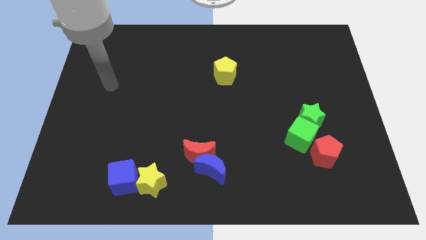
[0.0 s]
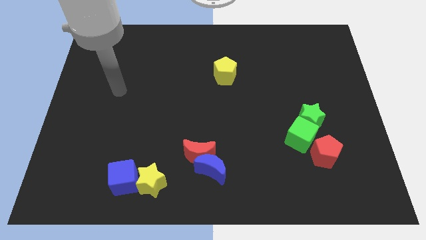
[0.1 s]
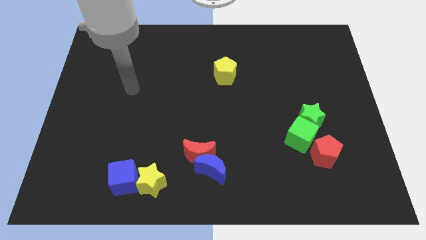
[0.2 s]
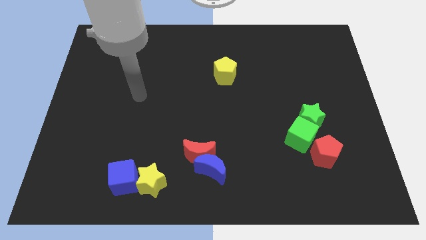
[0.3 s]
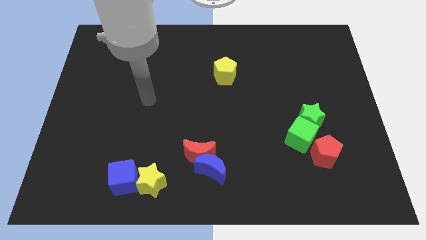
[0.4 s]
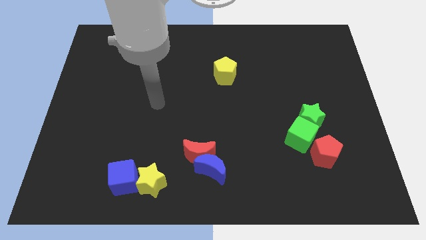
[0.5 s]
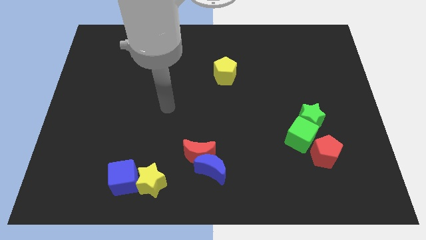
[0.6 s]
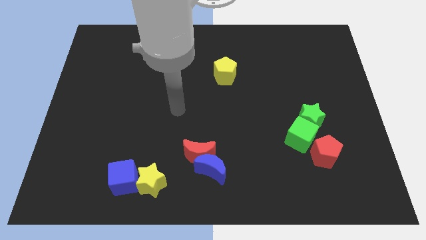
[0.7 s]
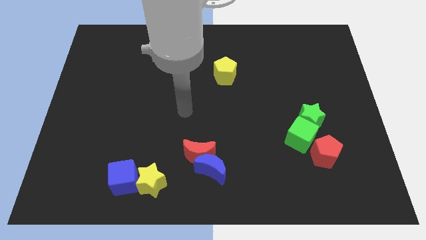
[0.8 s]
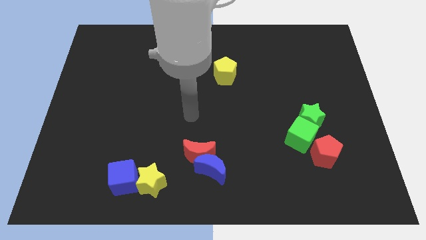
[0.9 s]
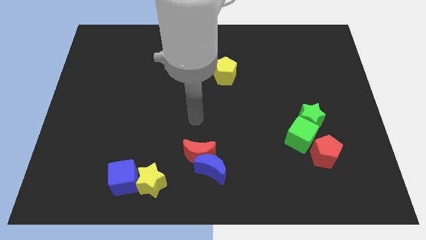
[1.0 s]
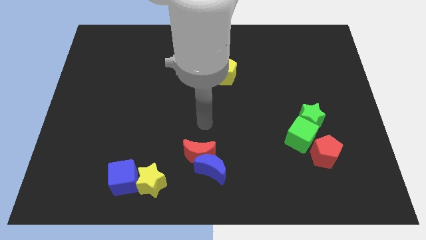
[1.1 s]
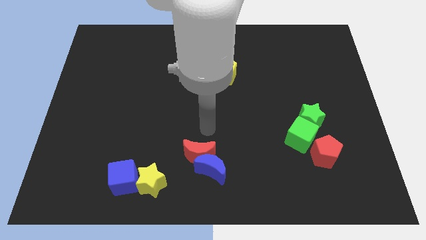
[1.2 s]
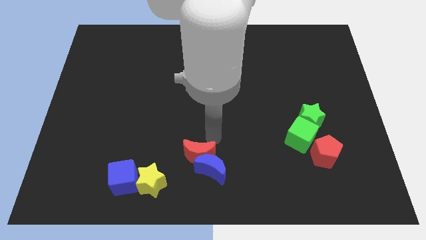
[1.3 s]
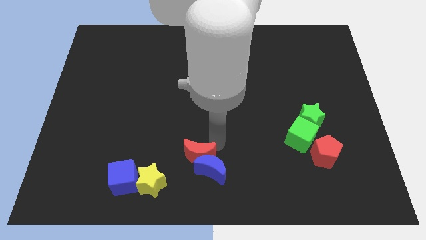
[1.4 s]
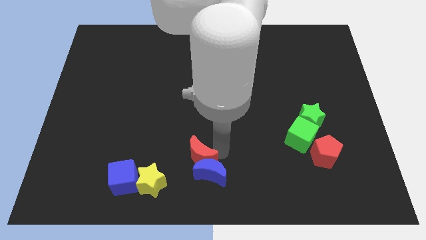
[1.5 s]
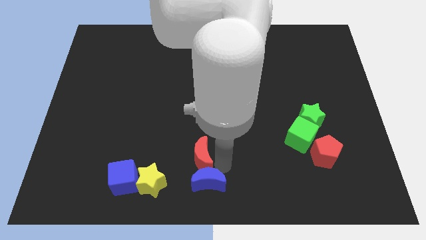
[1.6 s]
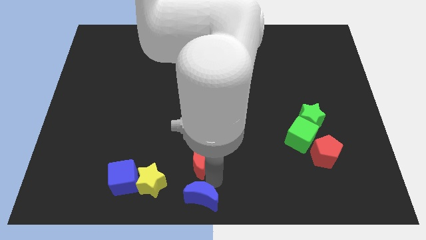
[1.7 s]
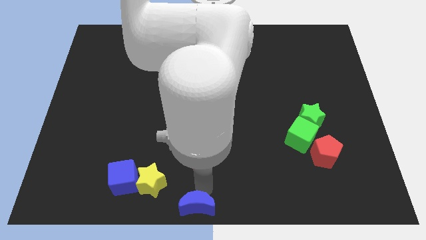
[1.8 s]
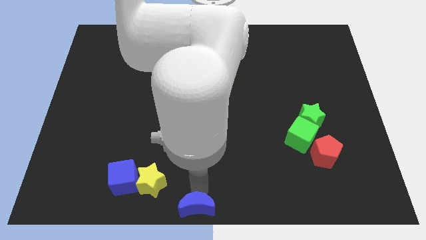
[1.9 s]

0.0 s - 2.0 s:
separate the red moon from the blue moon

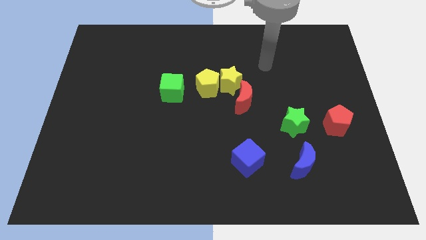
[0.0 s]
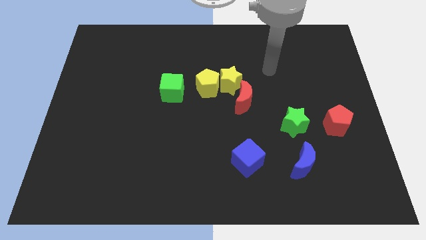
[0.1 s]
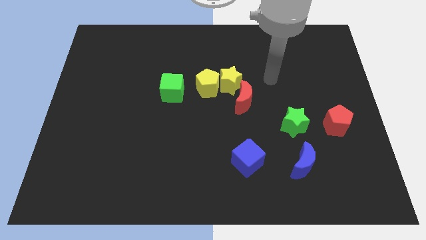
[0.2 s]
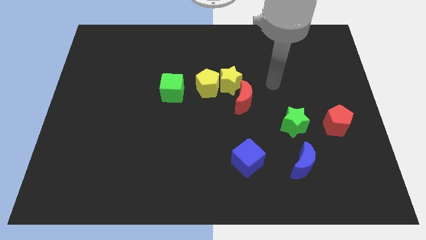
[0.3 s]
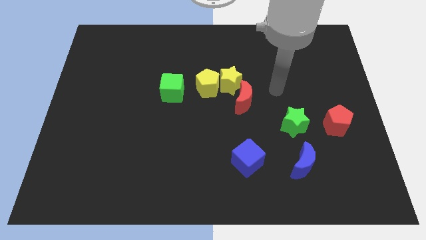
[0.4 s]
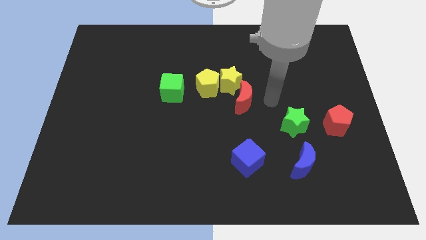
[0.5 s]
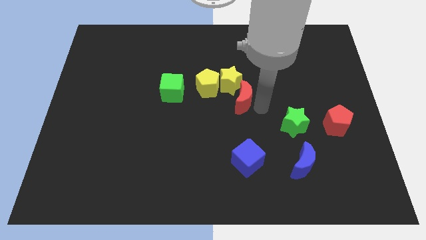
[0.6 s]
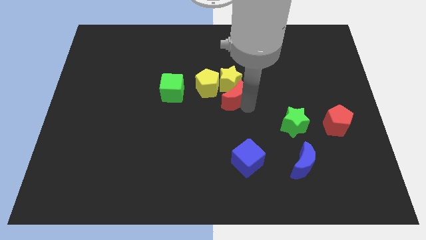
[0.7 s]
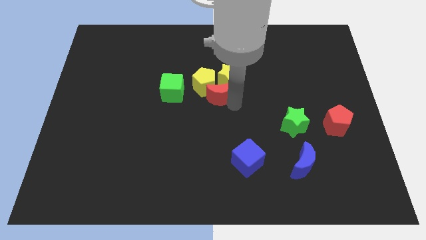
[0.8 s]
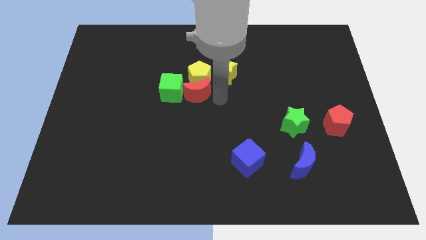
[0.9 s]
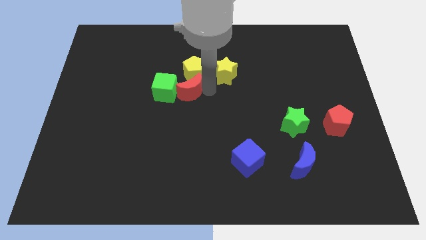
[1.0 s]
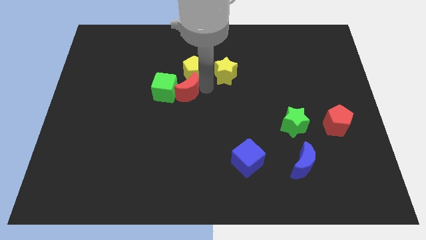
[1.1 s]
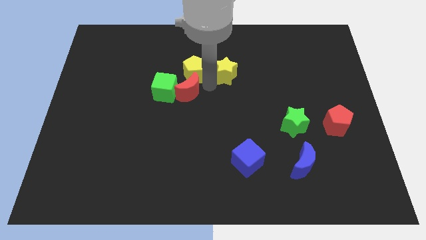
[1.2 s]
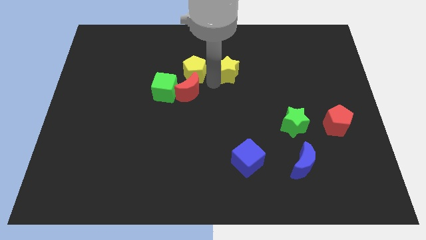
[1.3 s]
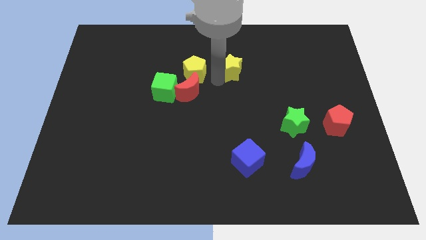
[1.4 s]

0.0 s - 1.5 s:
pull the yellow star apart from the yellow pentagon and red moon

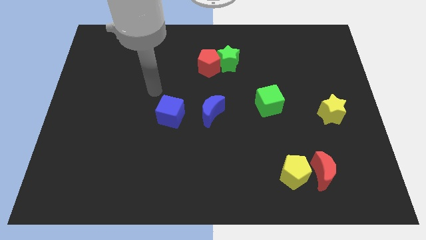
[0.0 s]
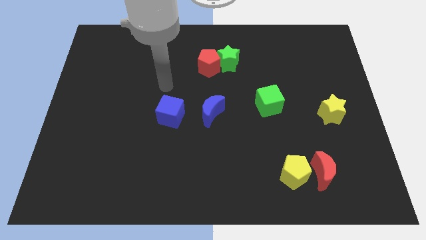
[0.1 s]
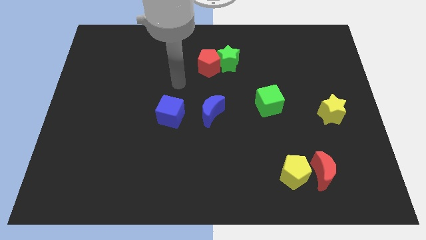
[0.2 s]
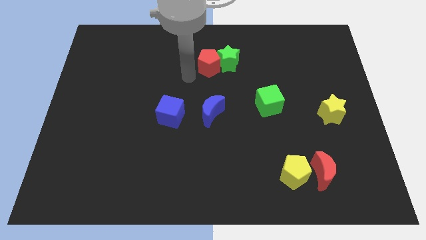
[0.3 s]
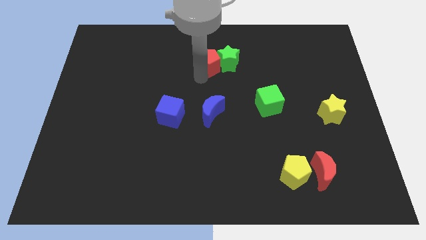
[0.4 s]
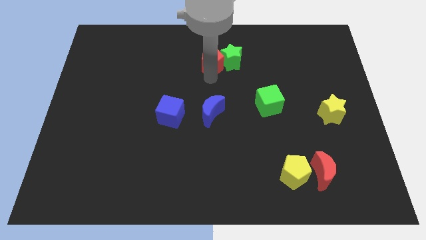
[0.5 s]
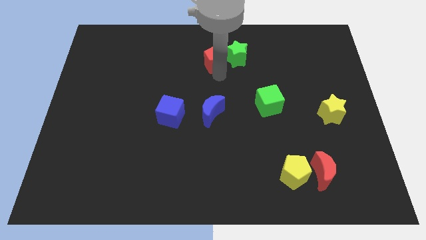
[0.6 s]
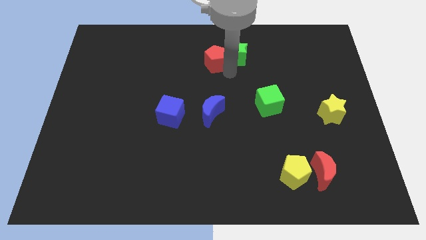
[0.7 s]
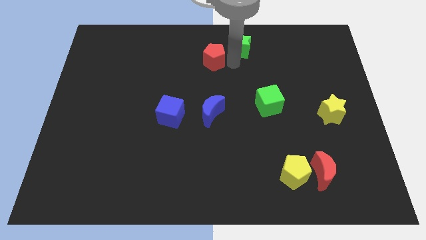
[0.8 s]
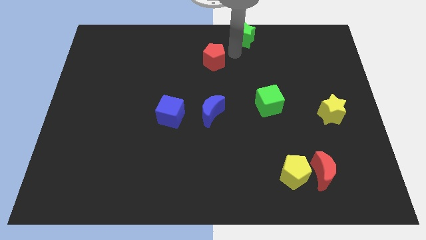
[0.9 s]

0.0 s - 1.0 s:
separate the red pentagon from the green star

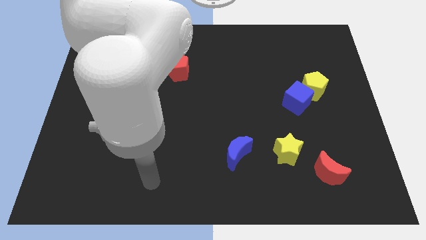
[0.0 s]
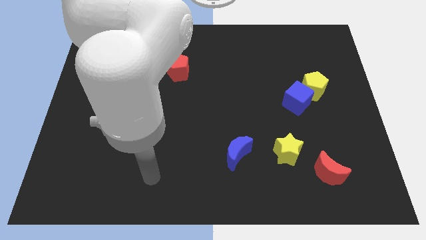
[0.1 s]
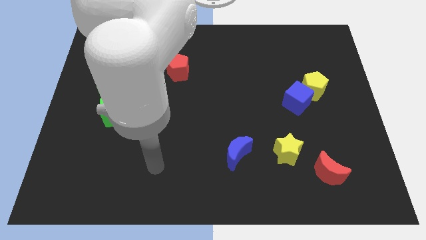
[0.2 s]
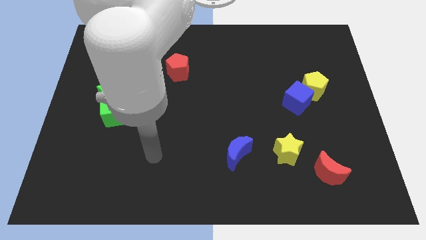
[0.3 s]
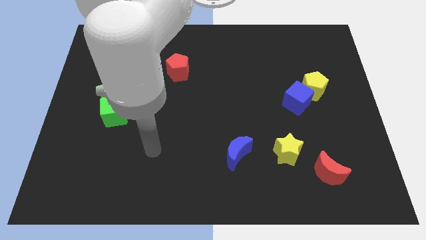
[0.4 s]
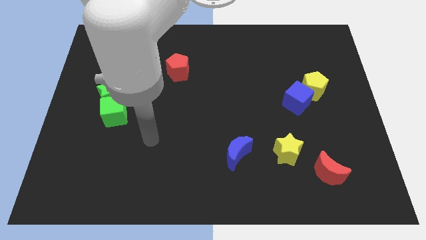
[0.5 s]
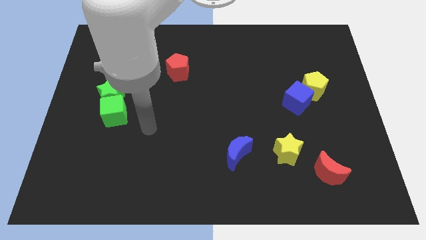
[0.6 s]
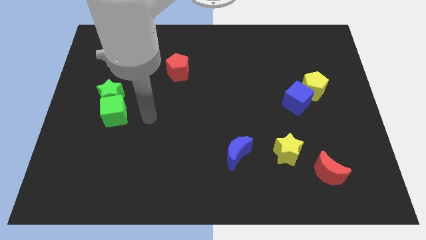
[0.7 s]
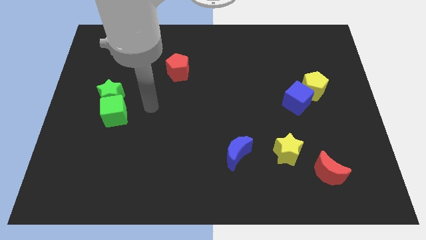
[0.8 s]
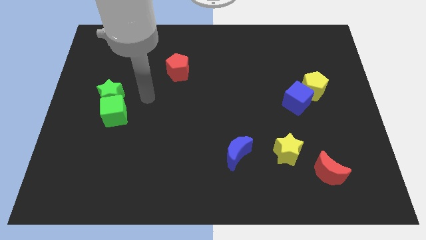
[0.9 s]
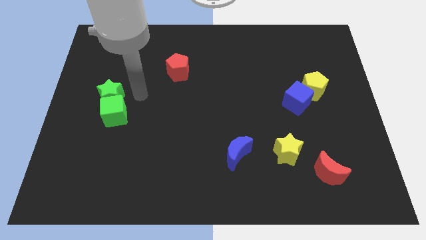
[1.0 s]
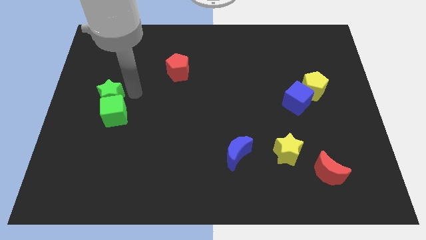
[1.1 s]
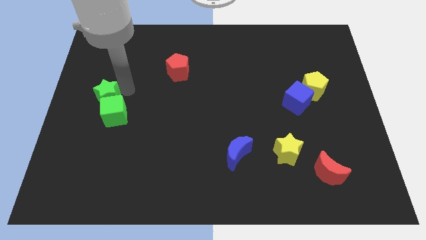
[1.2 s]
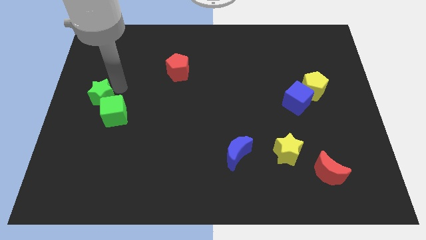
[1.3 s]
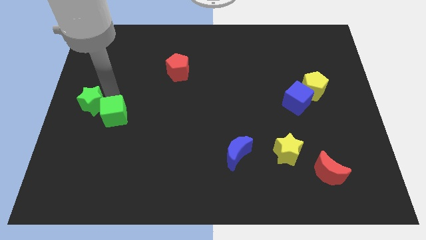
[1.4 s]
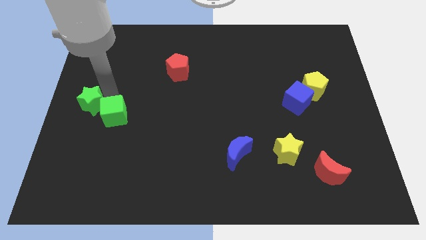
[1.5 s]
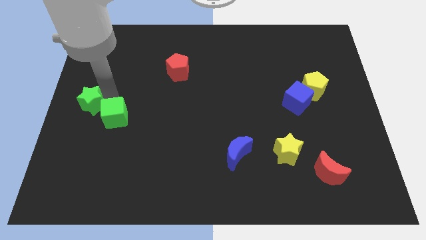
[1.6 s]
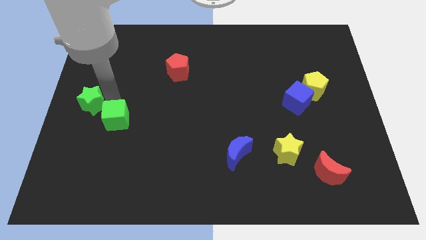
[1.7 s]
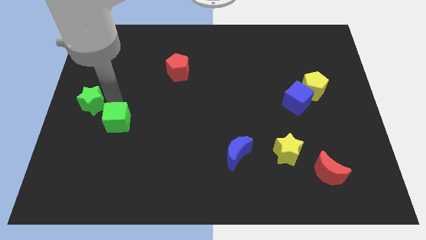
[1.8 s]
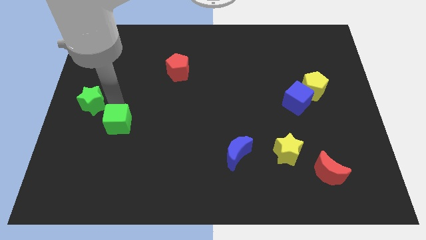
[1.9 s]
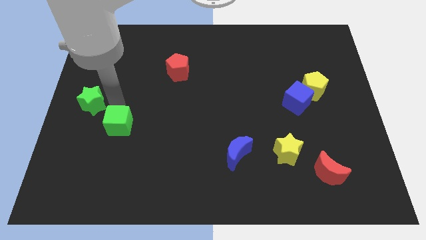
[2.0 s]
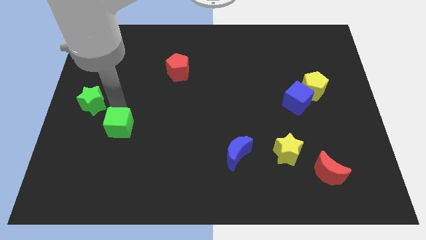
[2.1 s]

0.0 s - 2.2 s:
pull the green cube apart from the green star

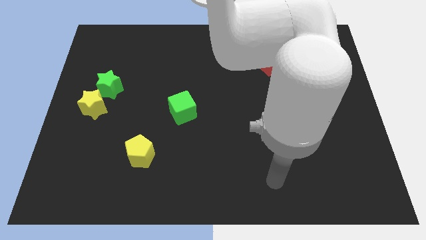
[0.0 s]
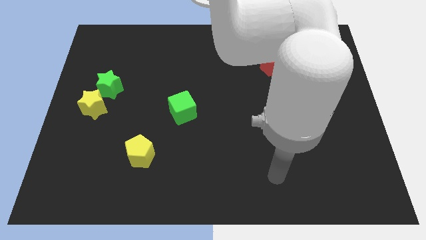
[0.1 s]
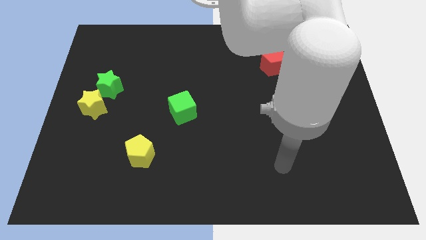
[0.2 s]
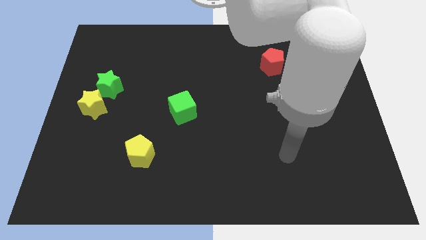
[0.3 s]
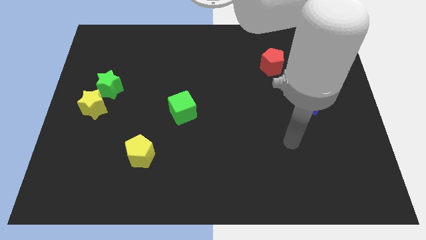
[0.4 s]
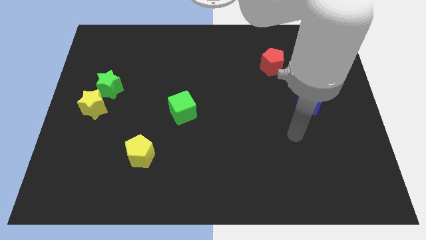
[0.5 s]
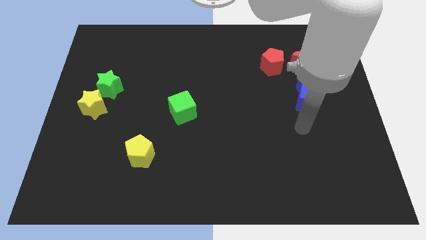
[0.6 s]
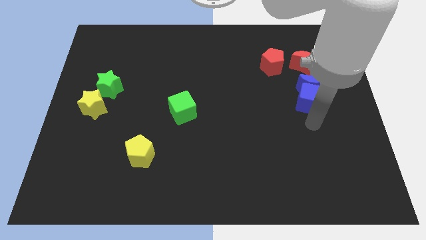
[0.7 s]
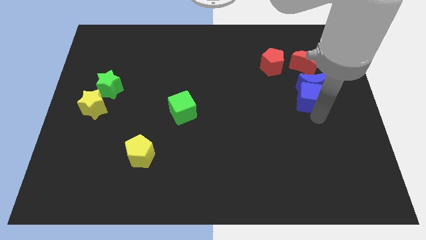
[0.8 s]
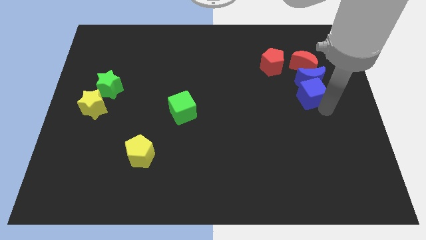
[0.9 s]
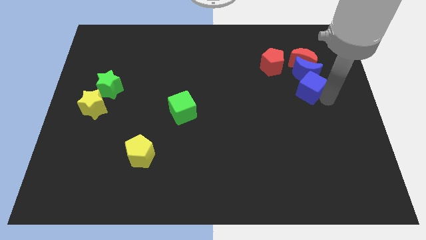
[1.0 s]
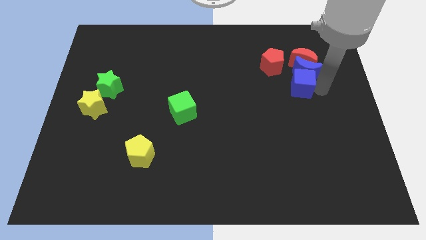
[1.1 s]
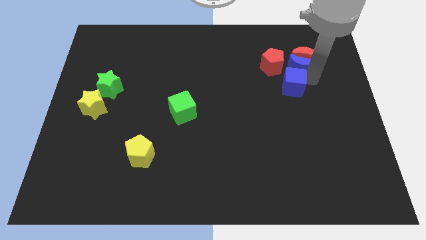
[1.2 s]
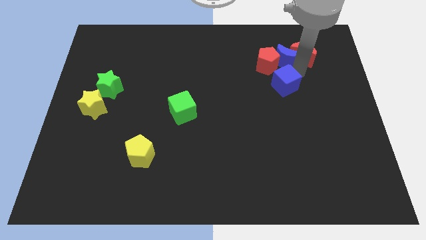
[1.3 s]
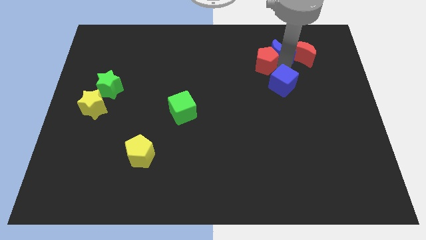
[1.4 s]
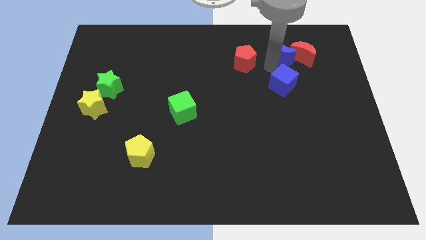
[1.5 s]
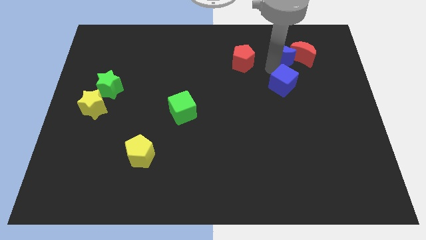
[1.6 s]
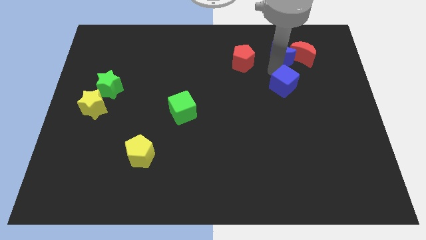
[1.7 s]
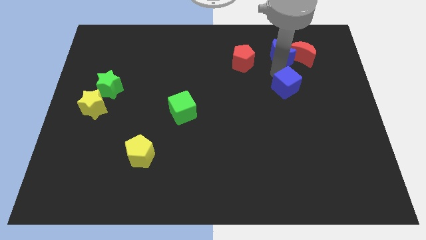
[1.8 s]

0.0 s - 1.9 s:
pull the blue cube apart from the blue moon

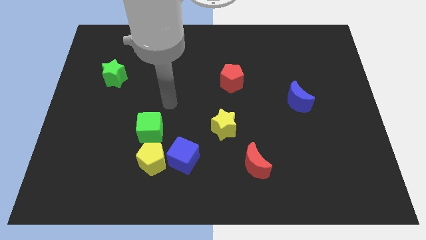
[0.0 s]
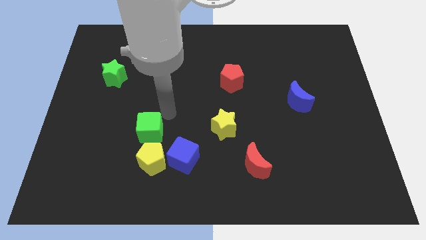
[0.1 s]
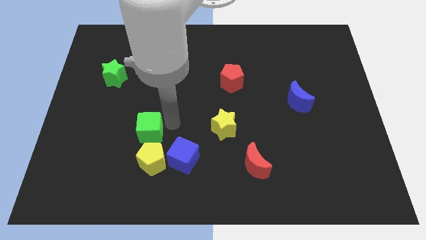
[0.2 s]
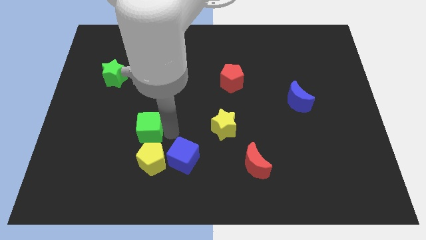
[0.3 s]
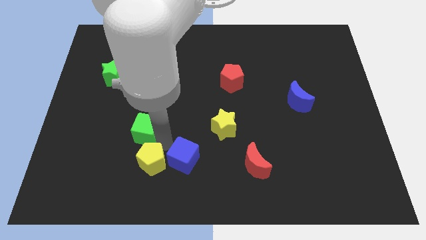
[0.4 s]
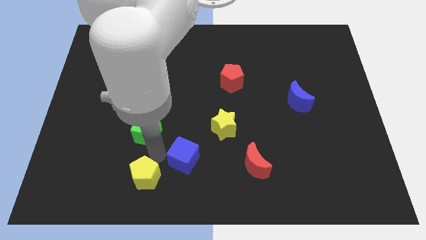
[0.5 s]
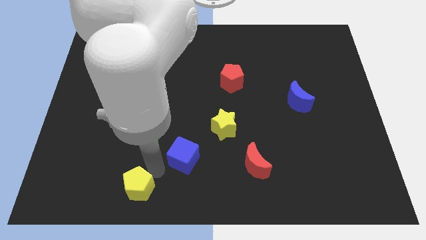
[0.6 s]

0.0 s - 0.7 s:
separate the blue cube from the yellow pentagon
